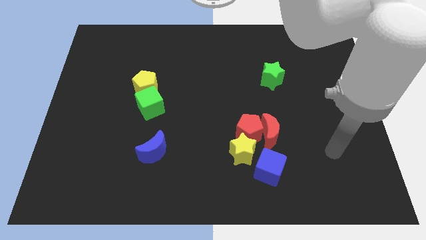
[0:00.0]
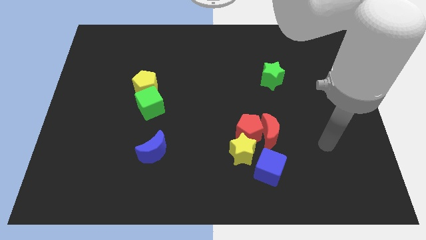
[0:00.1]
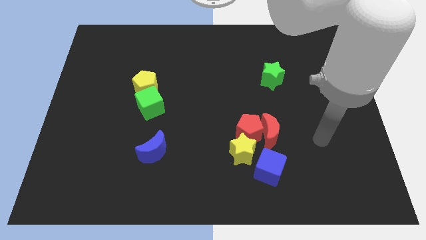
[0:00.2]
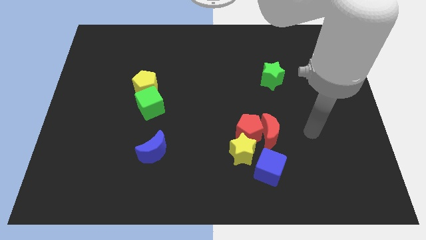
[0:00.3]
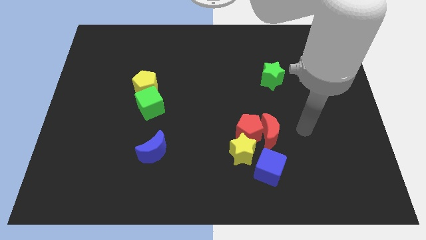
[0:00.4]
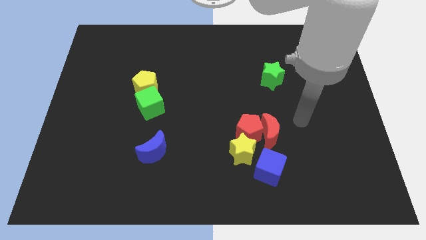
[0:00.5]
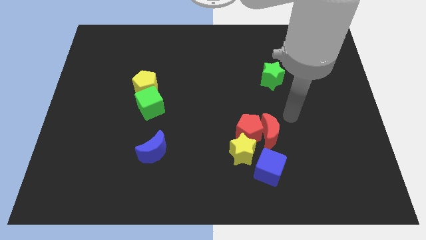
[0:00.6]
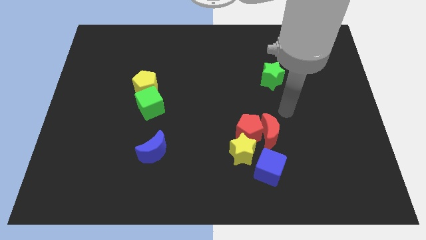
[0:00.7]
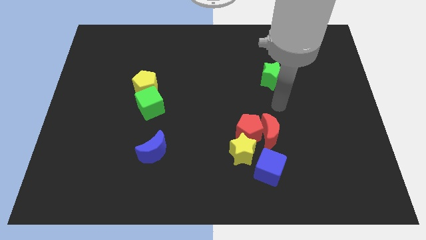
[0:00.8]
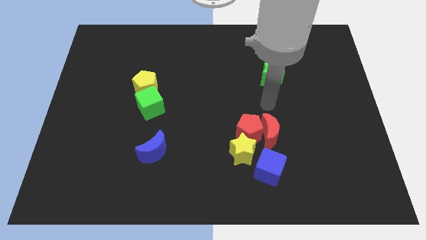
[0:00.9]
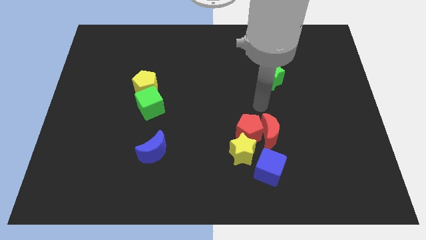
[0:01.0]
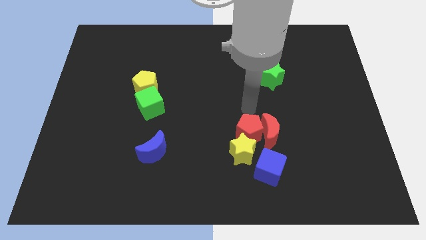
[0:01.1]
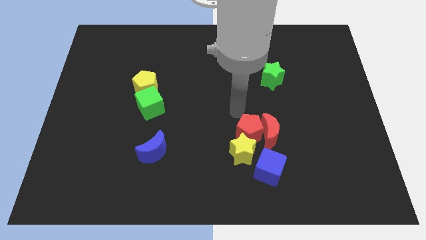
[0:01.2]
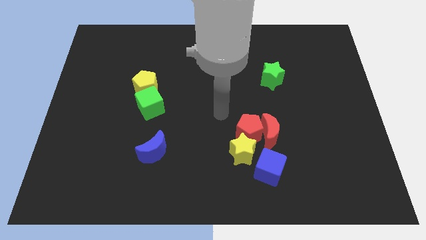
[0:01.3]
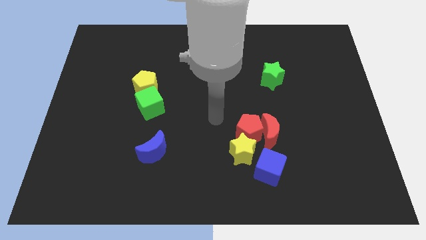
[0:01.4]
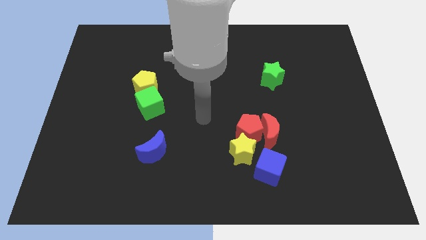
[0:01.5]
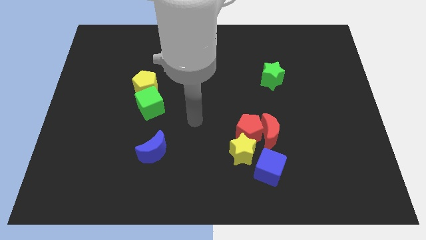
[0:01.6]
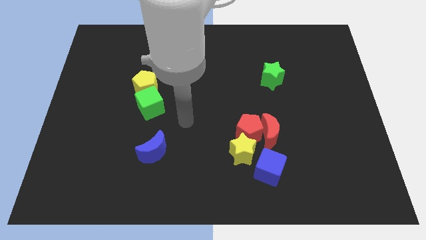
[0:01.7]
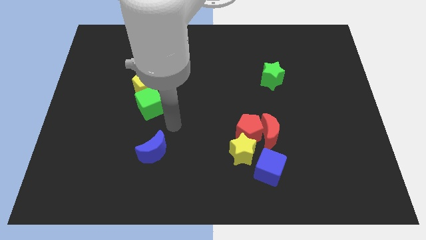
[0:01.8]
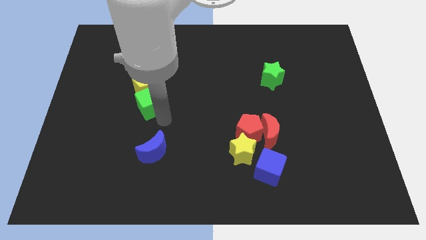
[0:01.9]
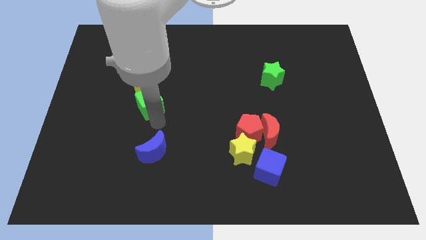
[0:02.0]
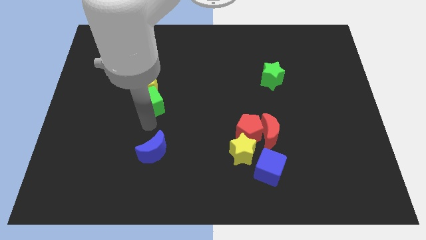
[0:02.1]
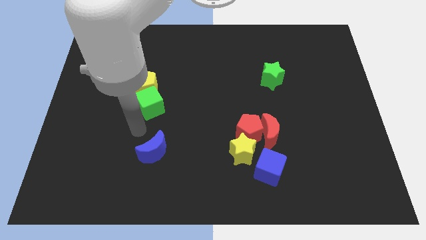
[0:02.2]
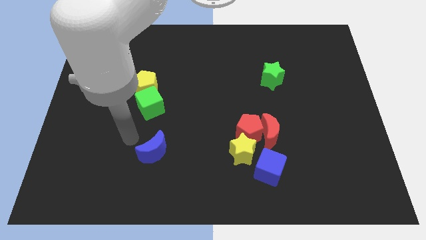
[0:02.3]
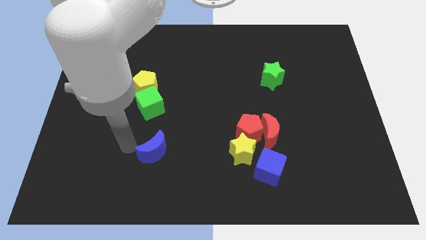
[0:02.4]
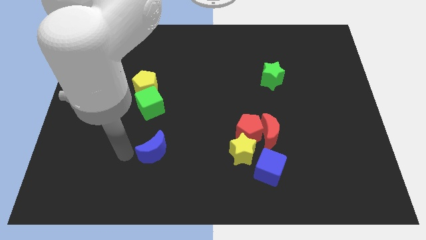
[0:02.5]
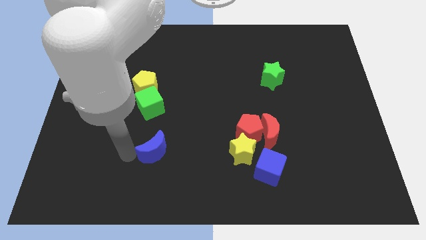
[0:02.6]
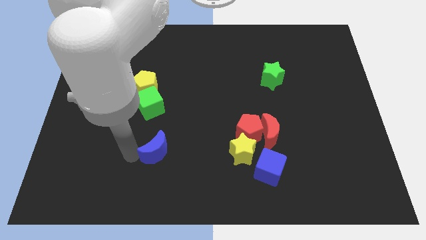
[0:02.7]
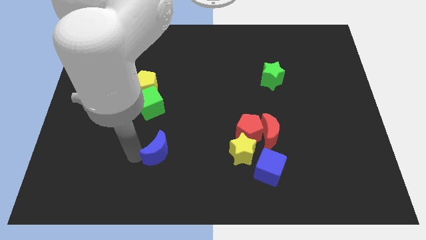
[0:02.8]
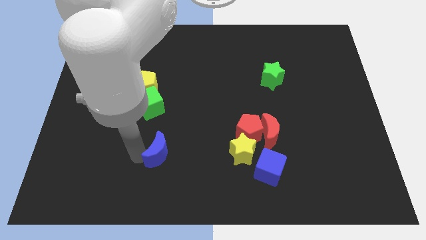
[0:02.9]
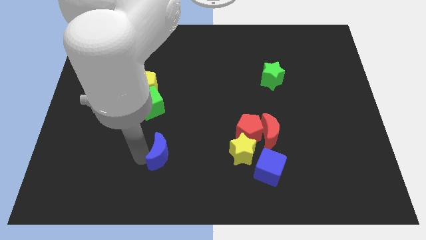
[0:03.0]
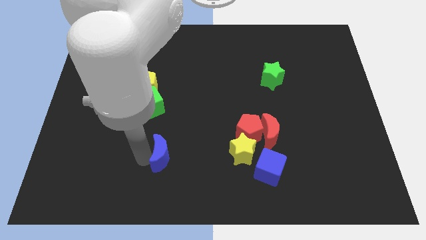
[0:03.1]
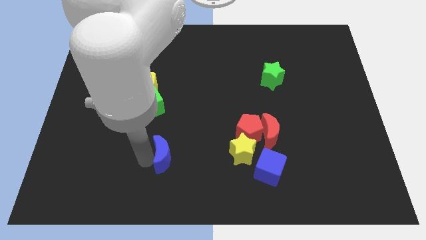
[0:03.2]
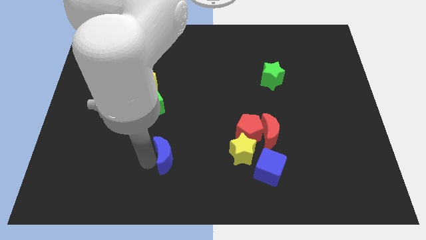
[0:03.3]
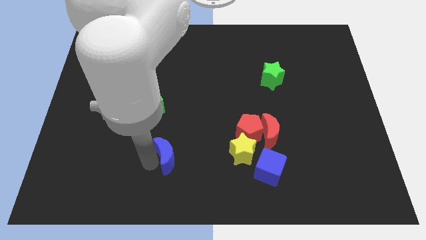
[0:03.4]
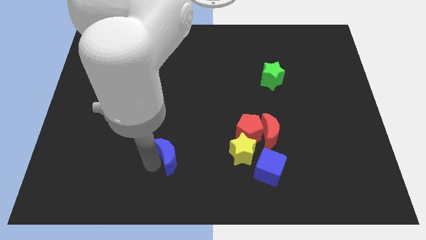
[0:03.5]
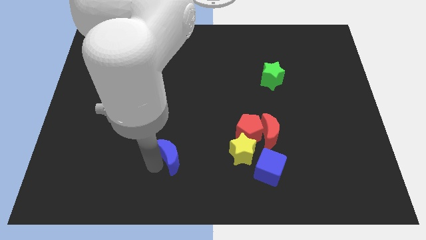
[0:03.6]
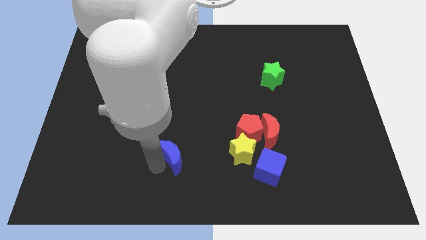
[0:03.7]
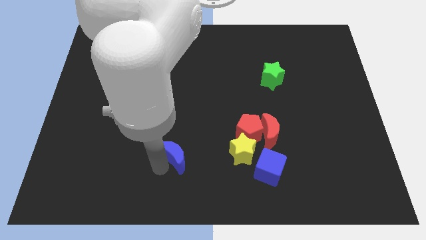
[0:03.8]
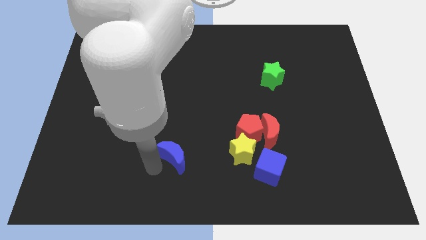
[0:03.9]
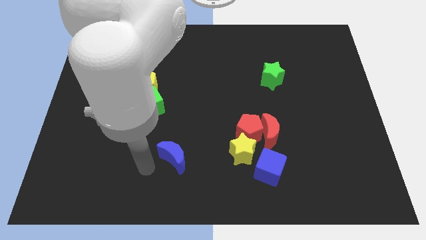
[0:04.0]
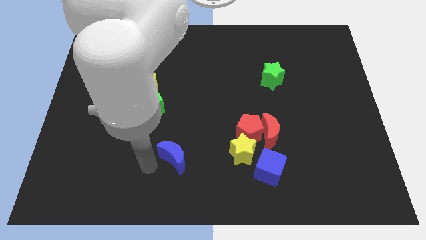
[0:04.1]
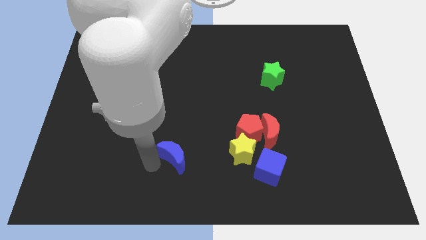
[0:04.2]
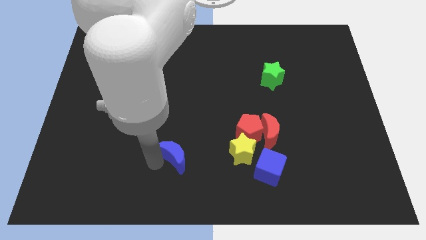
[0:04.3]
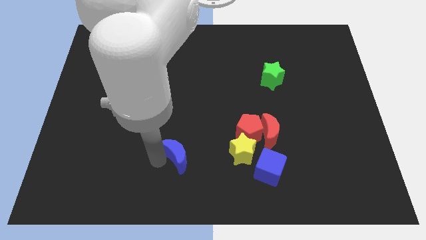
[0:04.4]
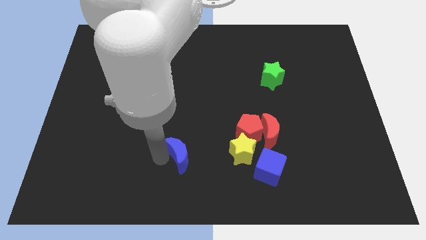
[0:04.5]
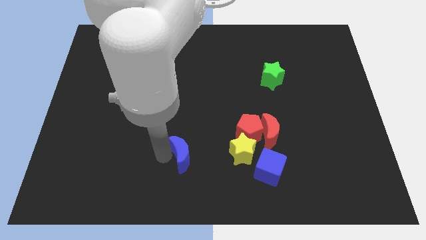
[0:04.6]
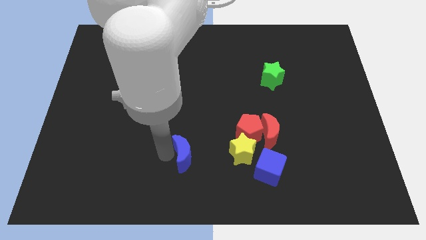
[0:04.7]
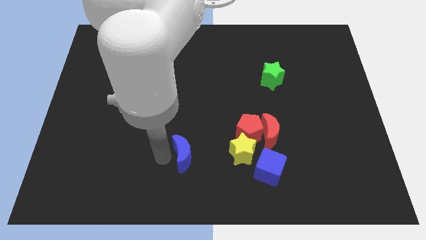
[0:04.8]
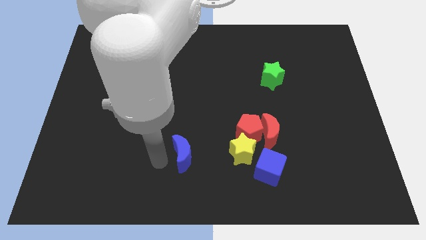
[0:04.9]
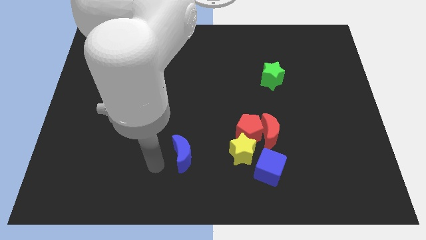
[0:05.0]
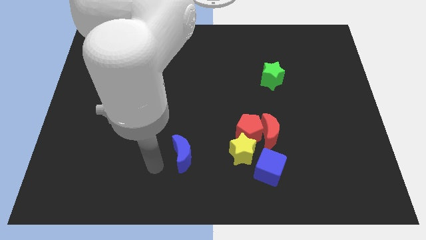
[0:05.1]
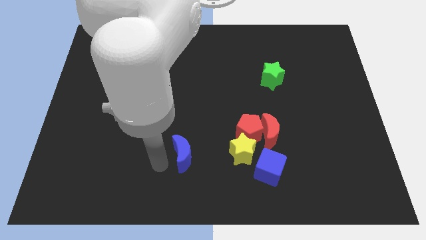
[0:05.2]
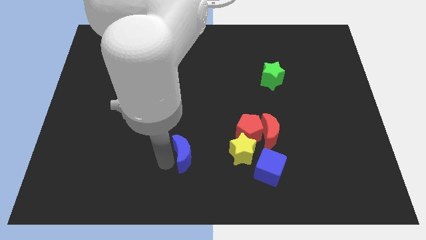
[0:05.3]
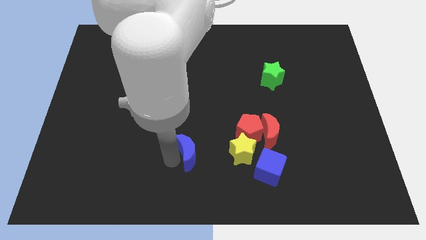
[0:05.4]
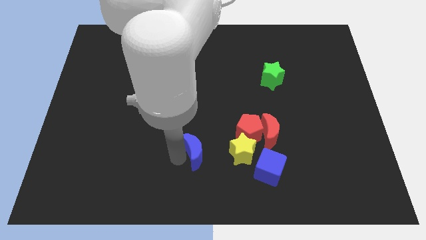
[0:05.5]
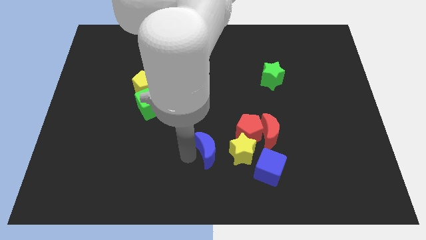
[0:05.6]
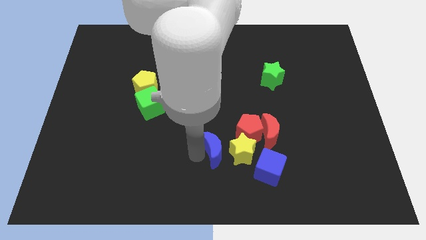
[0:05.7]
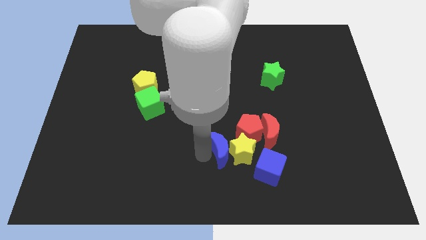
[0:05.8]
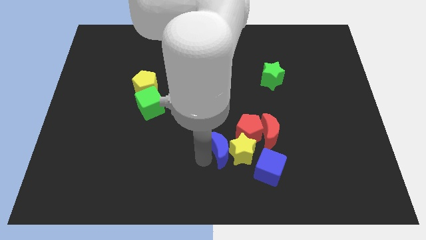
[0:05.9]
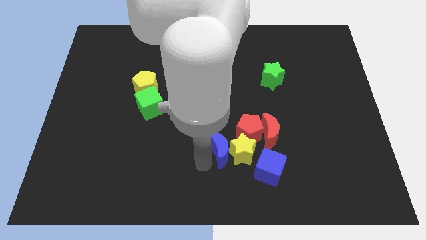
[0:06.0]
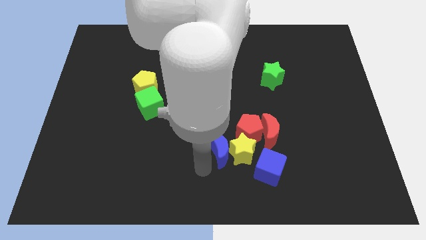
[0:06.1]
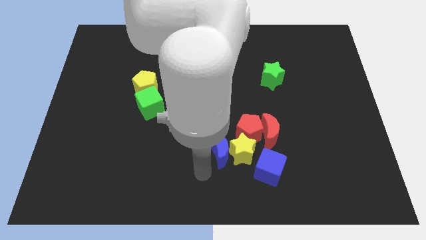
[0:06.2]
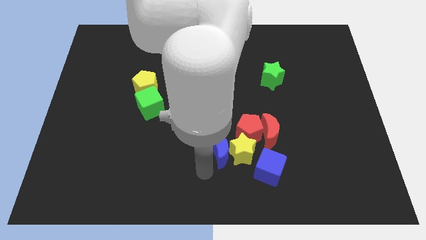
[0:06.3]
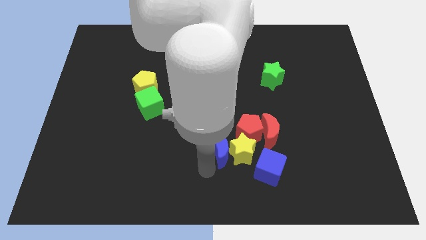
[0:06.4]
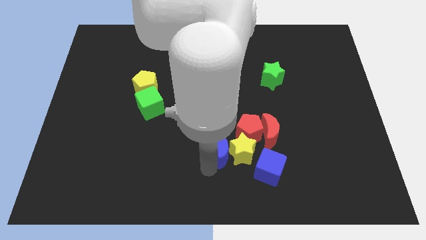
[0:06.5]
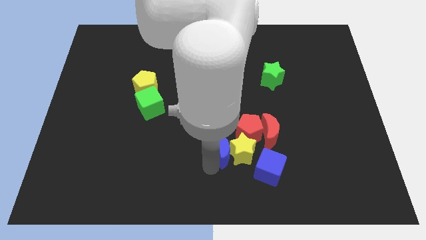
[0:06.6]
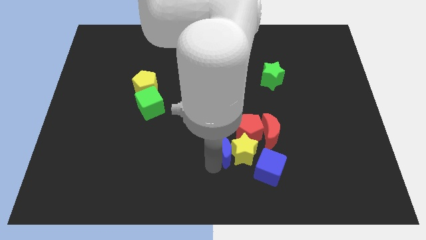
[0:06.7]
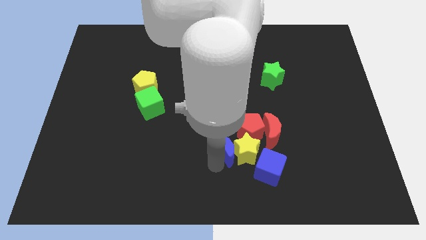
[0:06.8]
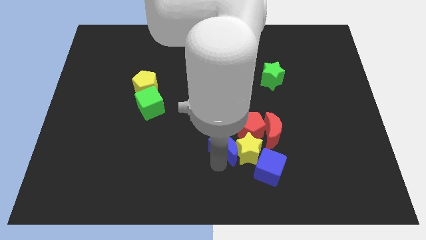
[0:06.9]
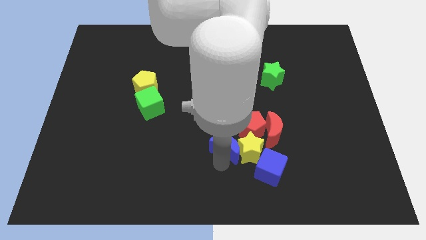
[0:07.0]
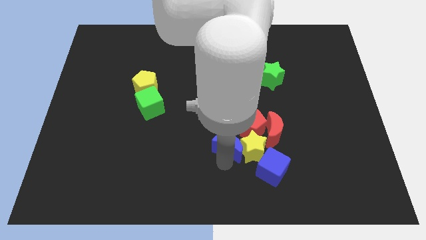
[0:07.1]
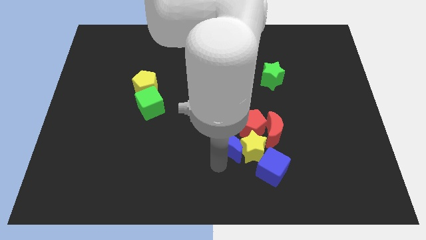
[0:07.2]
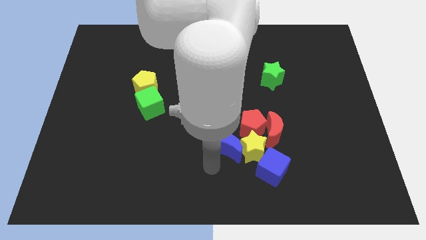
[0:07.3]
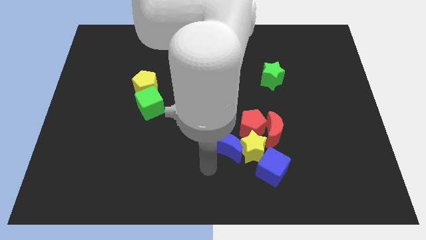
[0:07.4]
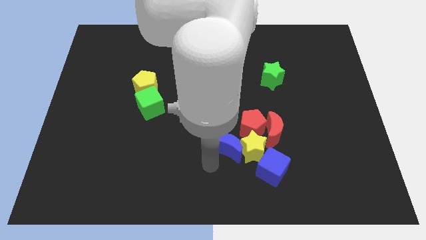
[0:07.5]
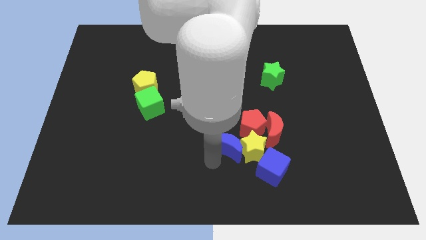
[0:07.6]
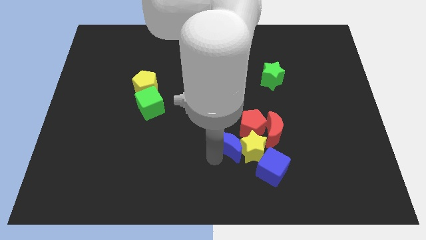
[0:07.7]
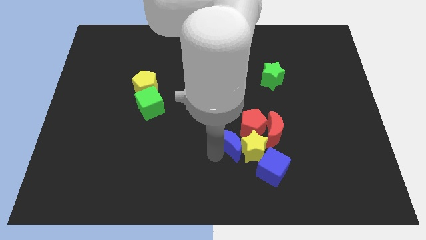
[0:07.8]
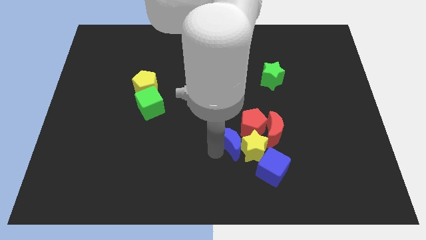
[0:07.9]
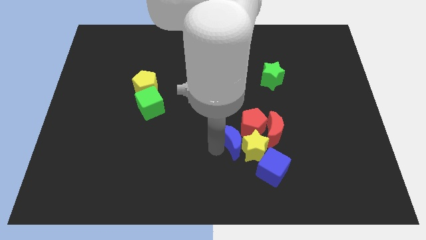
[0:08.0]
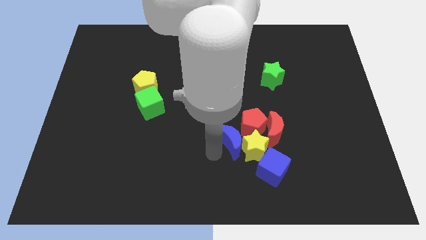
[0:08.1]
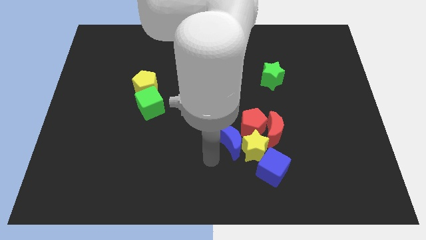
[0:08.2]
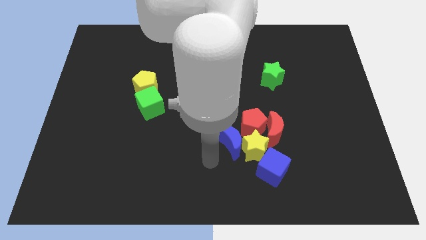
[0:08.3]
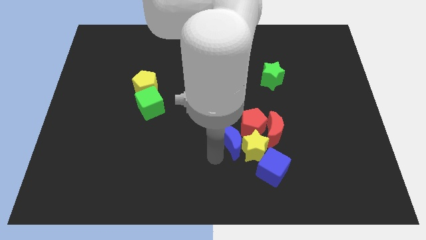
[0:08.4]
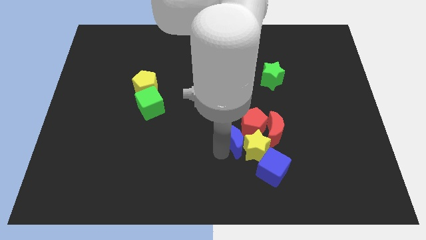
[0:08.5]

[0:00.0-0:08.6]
push the blue moon close to the red pentagon
